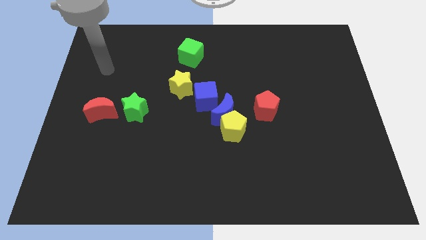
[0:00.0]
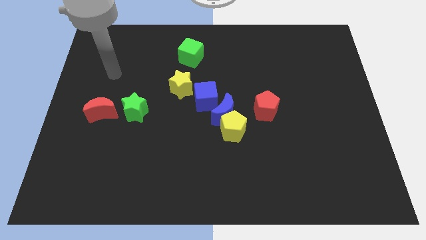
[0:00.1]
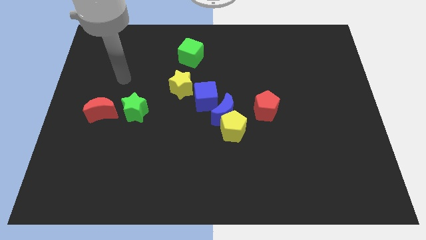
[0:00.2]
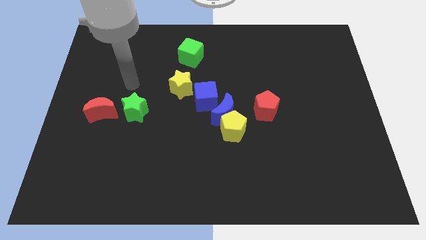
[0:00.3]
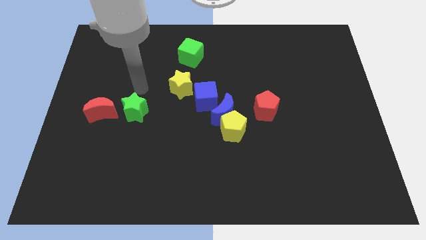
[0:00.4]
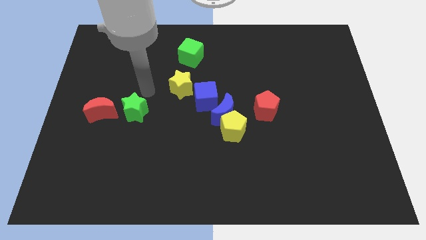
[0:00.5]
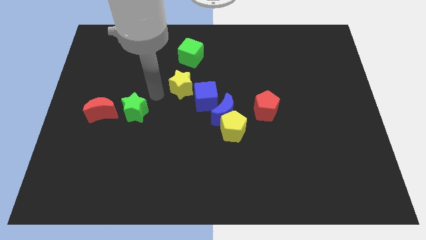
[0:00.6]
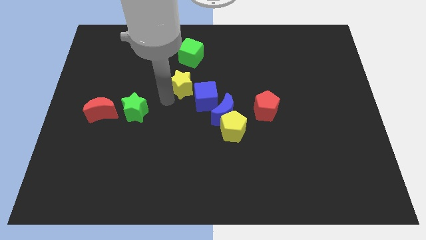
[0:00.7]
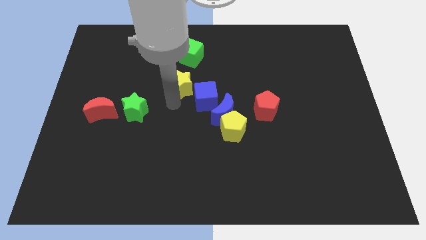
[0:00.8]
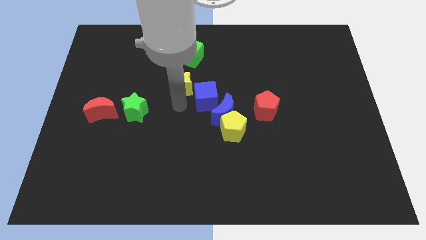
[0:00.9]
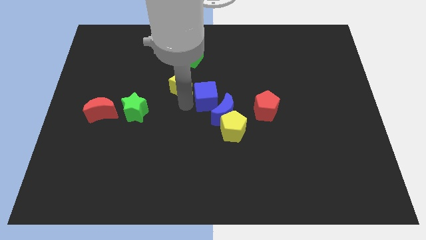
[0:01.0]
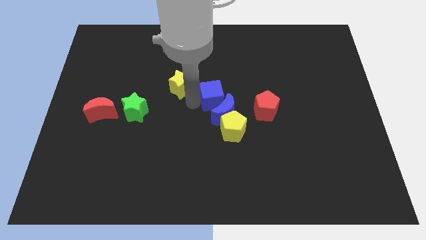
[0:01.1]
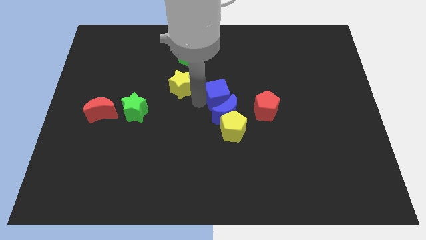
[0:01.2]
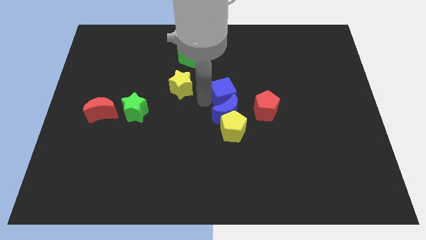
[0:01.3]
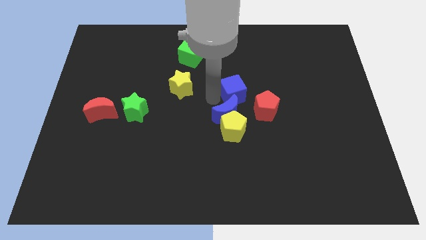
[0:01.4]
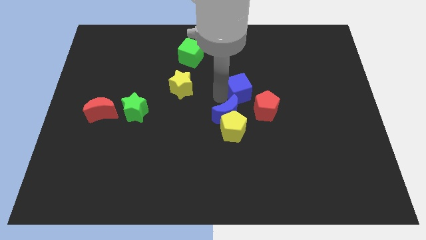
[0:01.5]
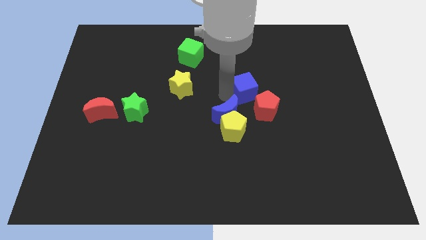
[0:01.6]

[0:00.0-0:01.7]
move the blue cube away from the blue moon and yellow star

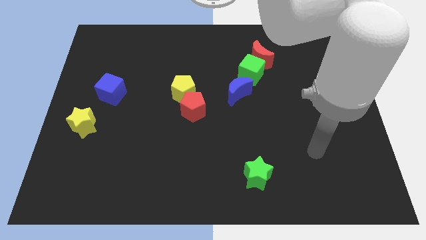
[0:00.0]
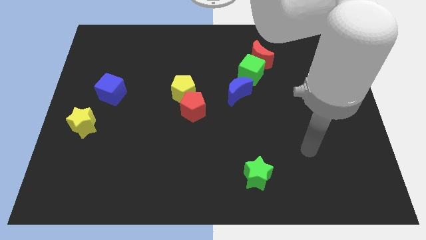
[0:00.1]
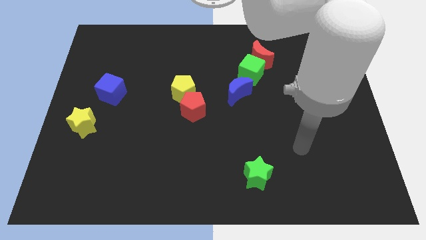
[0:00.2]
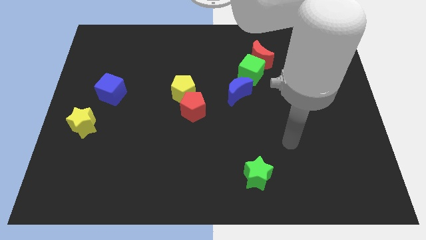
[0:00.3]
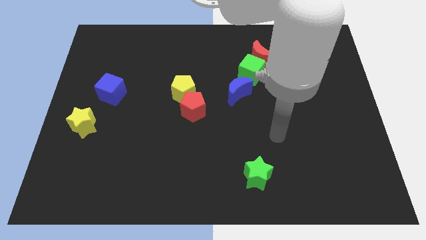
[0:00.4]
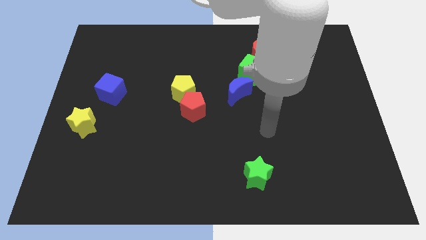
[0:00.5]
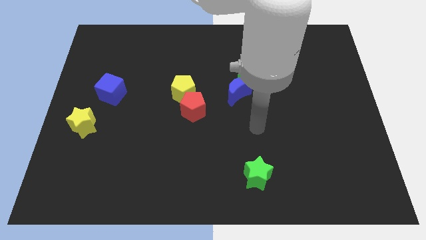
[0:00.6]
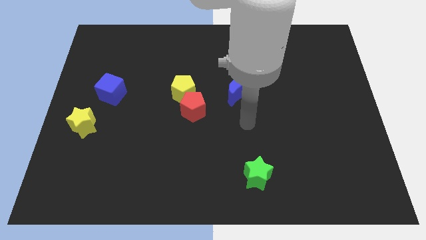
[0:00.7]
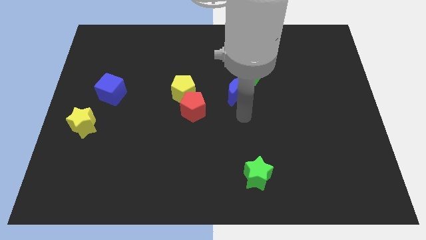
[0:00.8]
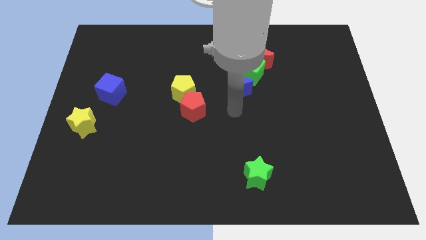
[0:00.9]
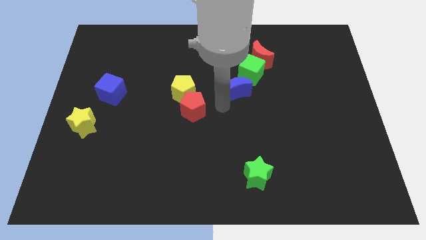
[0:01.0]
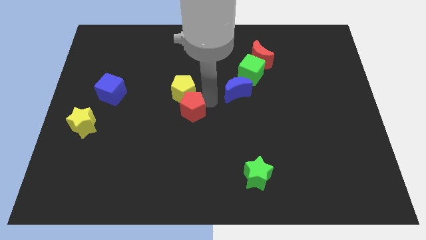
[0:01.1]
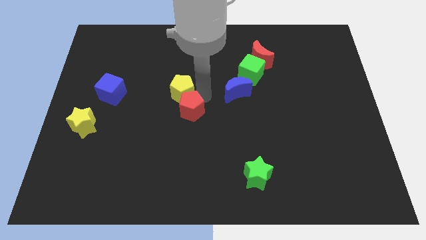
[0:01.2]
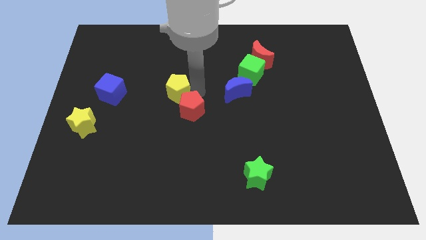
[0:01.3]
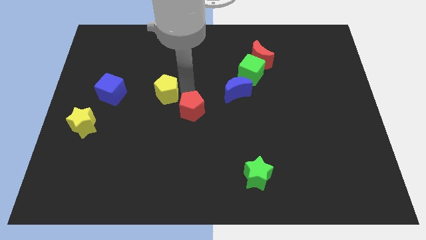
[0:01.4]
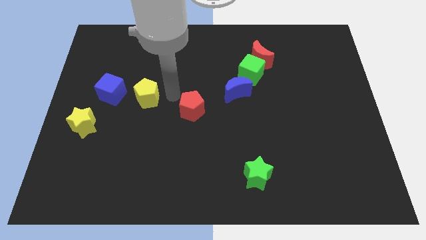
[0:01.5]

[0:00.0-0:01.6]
pull the red pentagon apart from the yellow pentagon

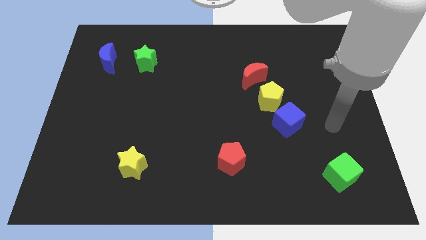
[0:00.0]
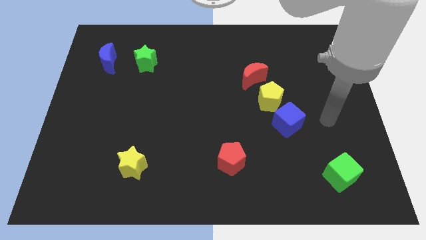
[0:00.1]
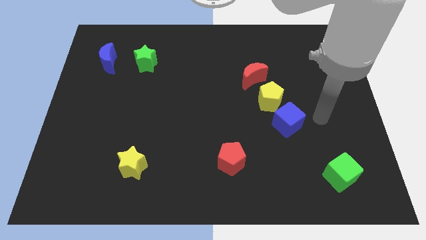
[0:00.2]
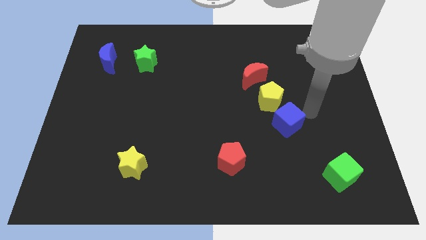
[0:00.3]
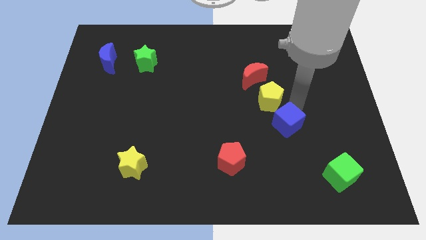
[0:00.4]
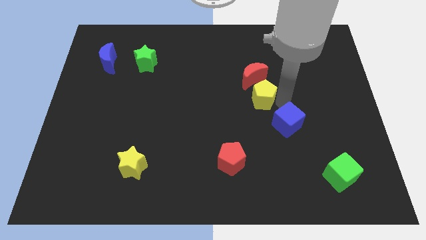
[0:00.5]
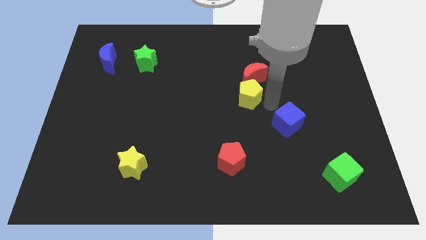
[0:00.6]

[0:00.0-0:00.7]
pull the blue cube apart from the yellow pentagon

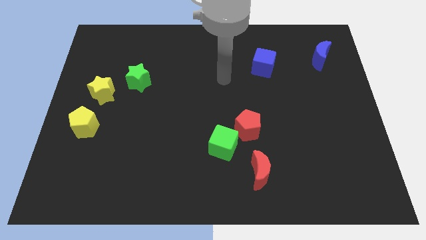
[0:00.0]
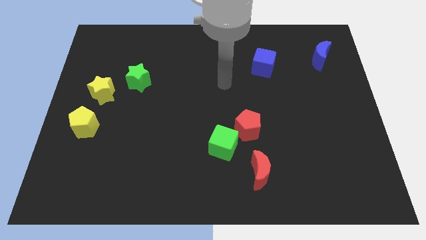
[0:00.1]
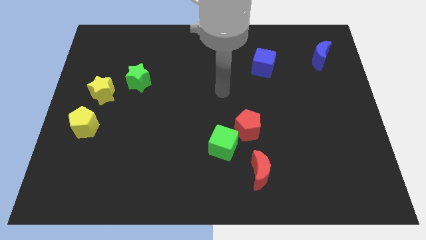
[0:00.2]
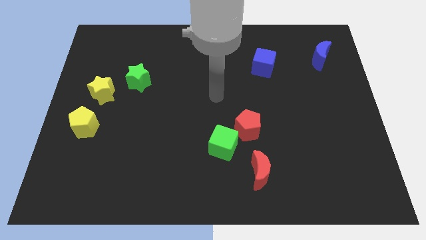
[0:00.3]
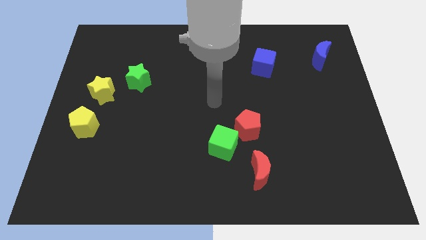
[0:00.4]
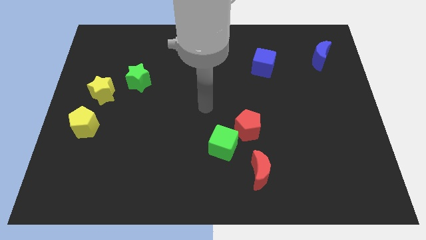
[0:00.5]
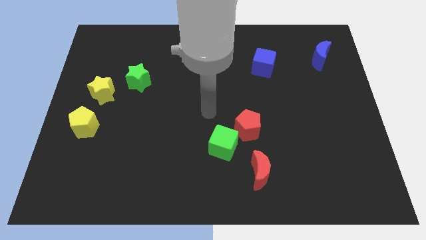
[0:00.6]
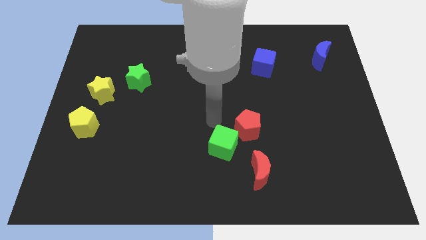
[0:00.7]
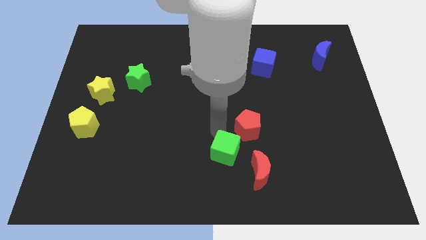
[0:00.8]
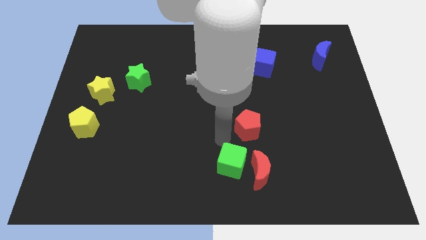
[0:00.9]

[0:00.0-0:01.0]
pull the red pentagon apart from the green cube

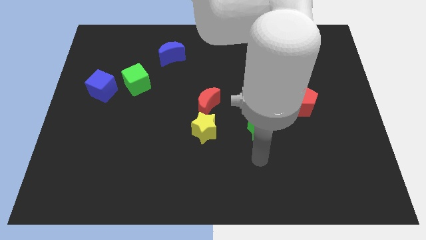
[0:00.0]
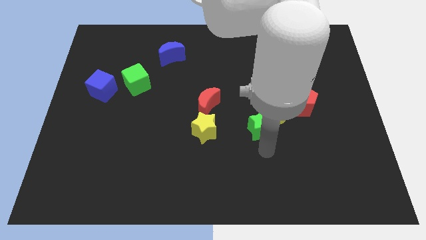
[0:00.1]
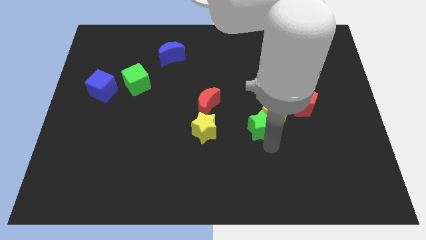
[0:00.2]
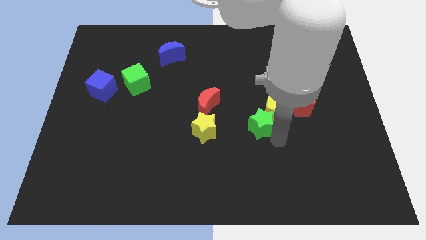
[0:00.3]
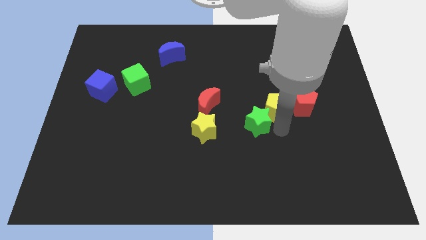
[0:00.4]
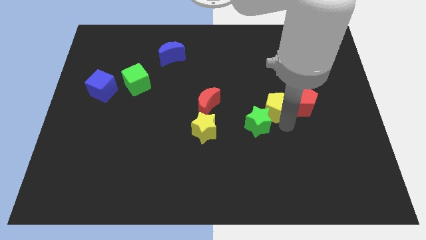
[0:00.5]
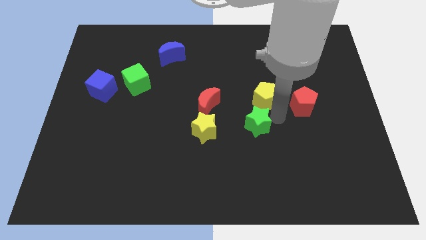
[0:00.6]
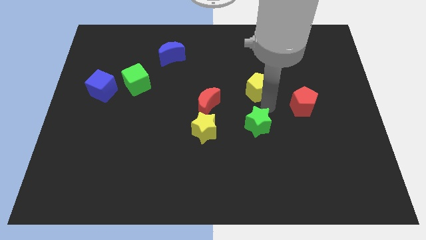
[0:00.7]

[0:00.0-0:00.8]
pull the green star apart from the yellow pentagon

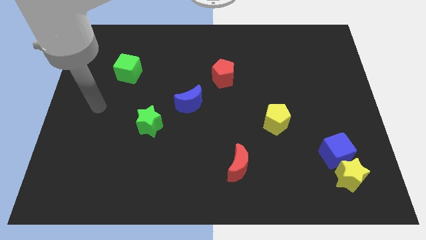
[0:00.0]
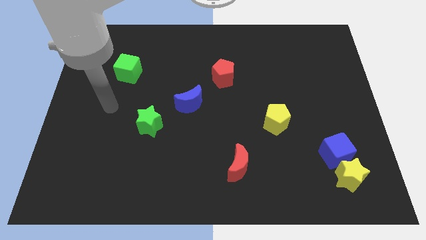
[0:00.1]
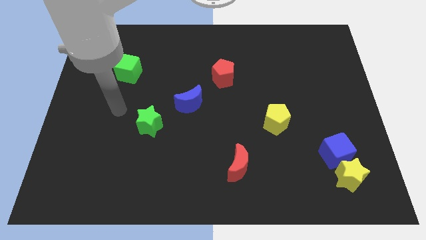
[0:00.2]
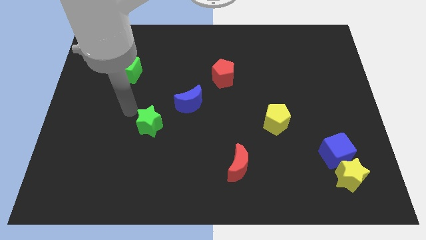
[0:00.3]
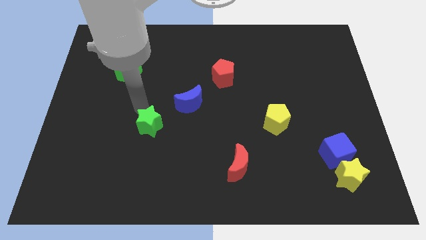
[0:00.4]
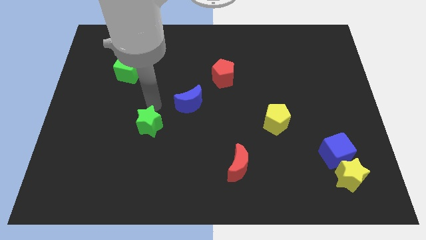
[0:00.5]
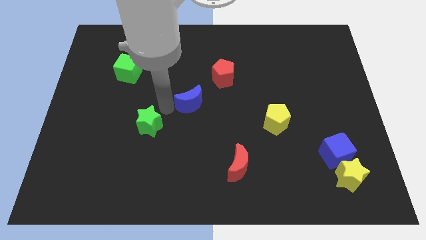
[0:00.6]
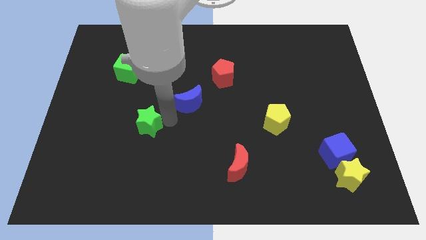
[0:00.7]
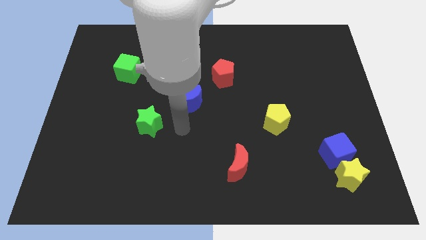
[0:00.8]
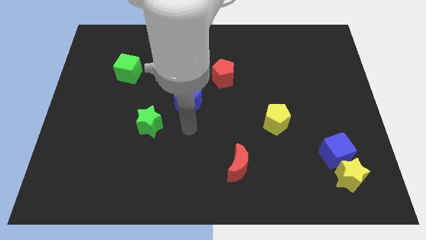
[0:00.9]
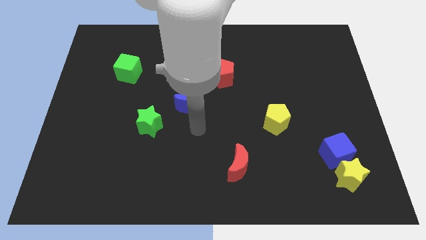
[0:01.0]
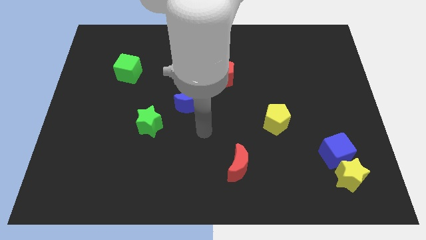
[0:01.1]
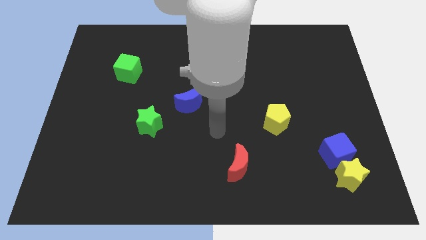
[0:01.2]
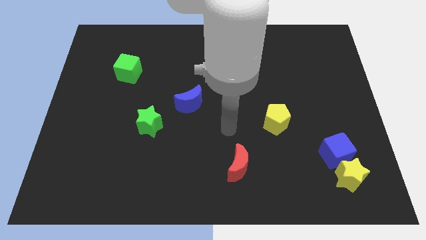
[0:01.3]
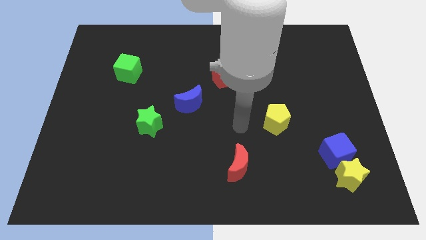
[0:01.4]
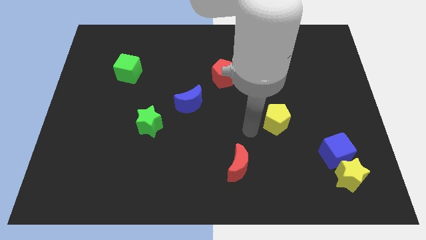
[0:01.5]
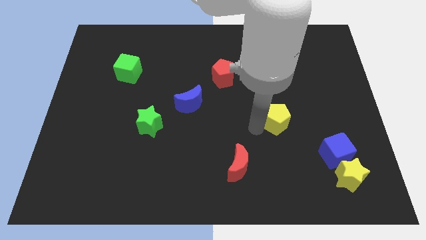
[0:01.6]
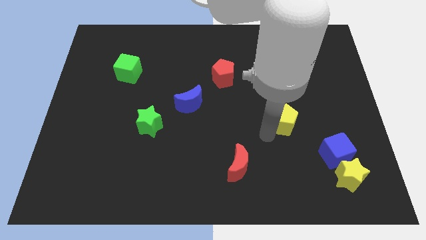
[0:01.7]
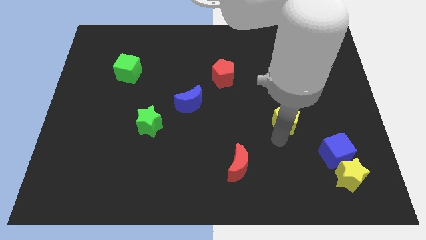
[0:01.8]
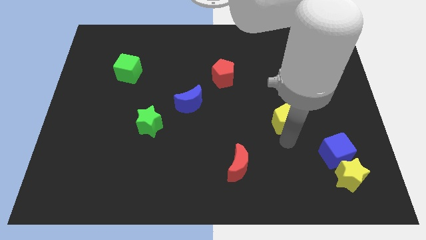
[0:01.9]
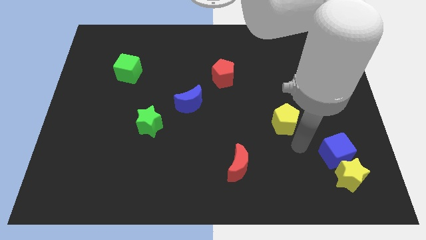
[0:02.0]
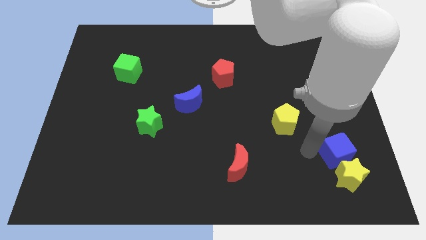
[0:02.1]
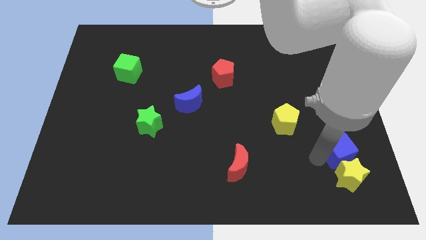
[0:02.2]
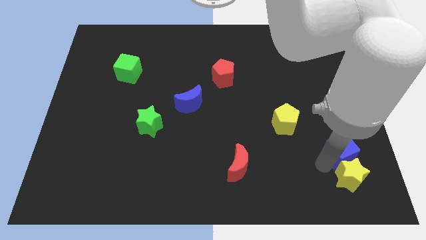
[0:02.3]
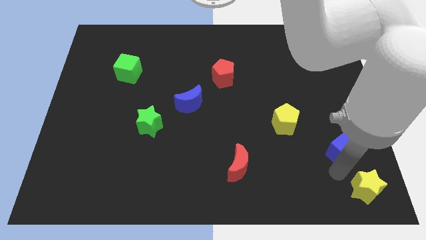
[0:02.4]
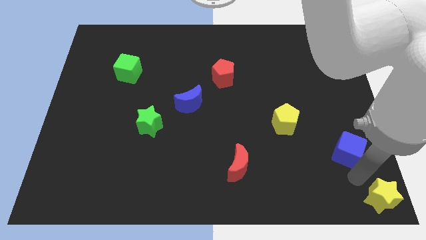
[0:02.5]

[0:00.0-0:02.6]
separate the blue cube from the yellow star

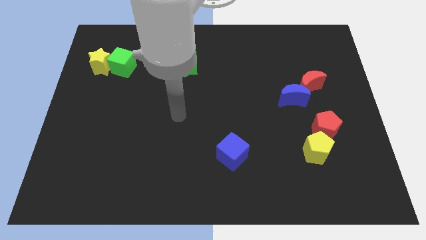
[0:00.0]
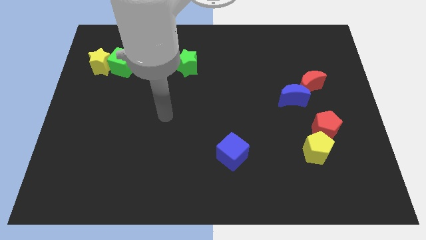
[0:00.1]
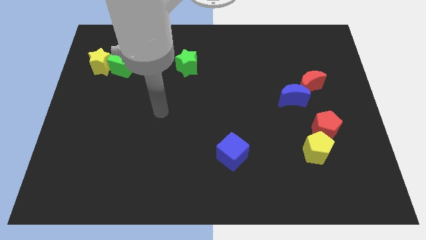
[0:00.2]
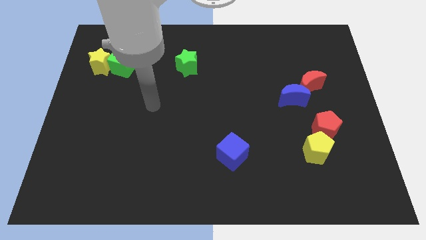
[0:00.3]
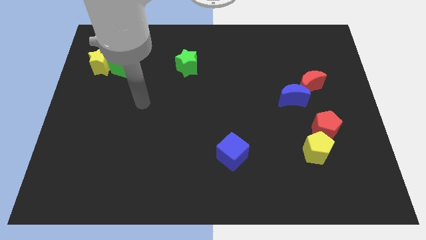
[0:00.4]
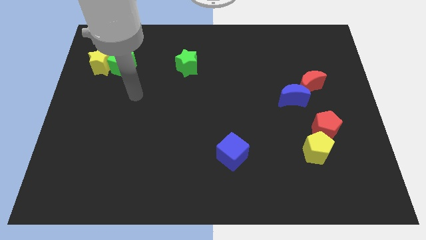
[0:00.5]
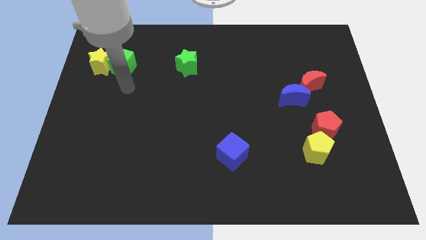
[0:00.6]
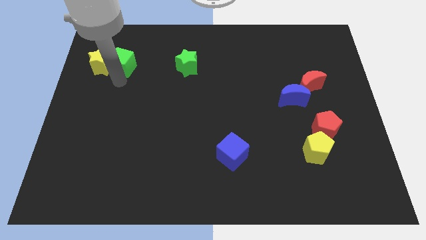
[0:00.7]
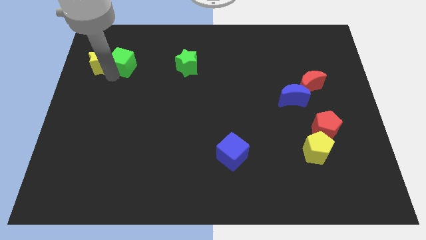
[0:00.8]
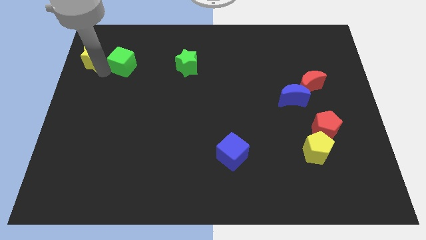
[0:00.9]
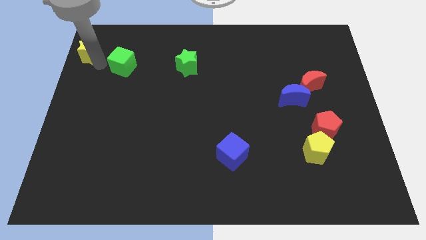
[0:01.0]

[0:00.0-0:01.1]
pull the green cube apart from the yellow star
